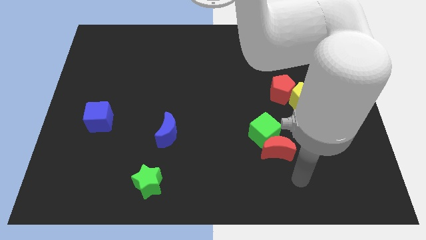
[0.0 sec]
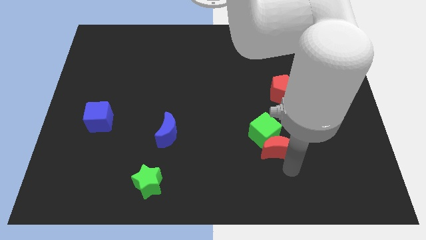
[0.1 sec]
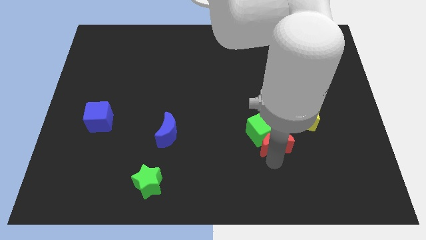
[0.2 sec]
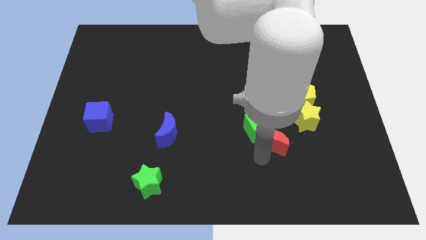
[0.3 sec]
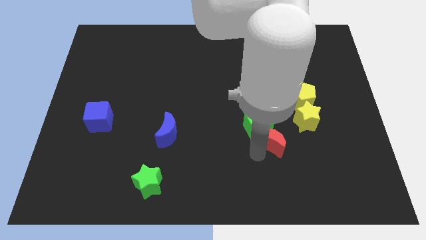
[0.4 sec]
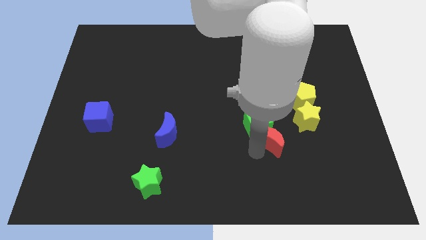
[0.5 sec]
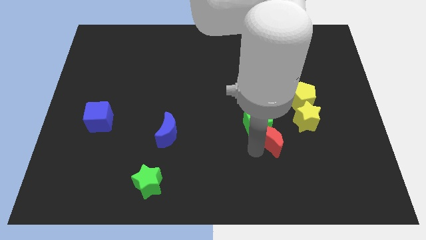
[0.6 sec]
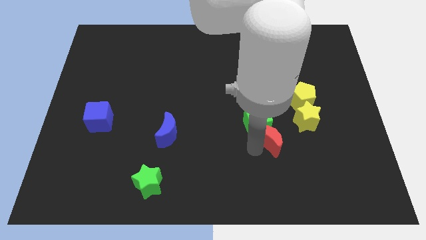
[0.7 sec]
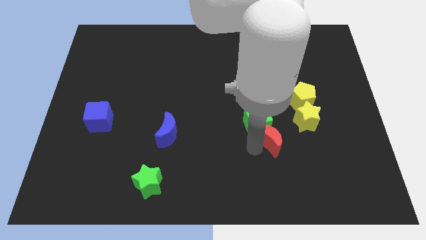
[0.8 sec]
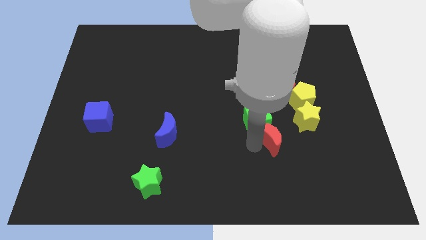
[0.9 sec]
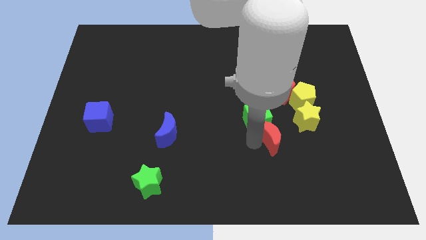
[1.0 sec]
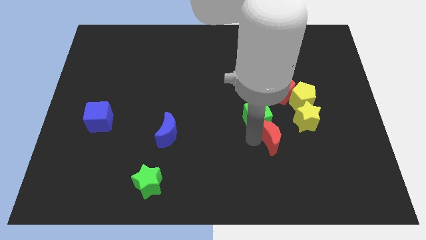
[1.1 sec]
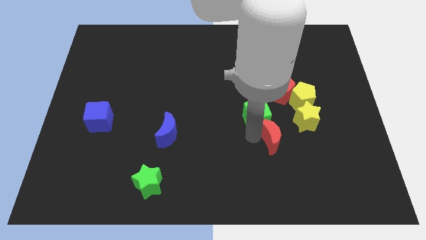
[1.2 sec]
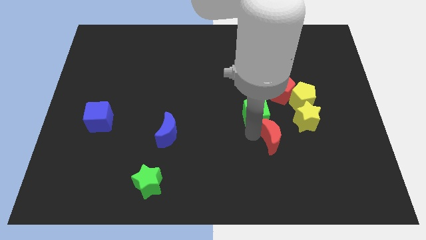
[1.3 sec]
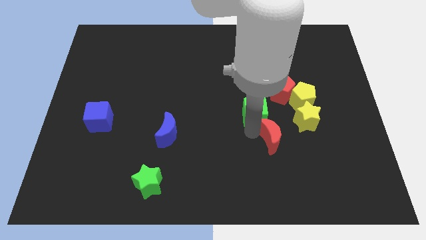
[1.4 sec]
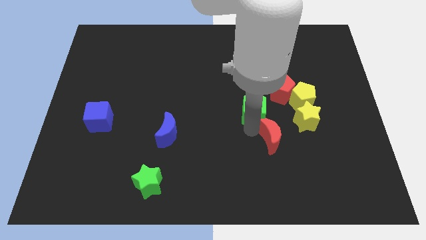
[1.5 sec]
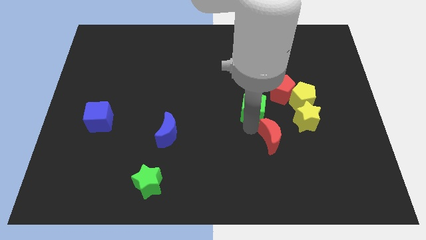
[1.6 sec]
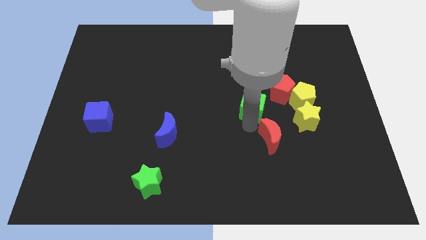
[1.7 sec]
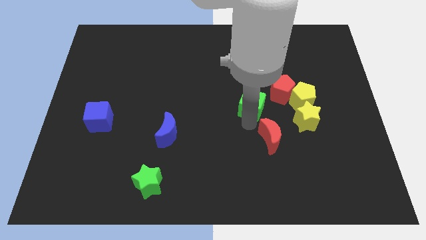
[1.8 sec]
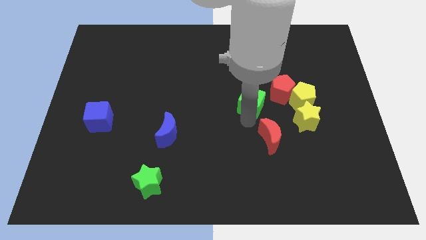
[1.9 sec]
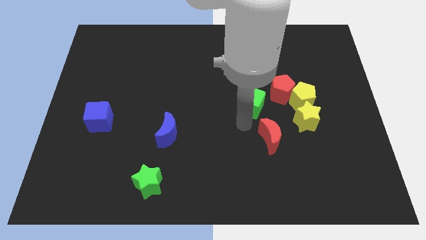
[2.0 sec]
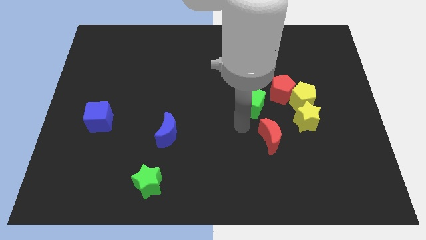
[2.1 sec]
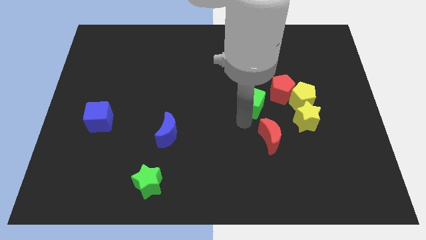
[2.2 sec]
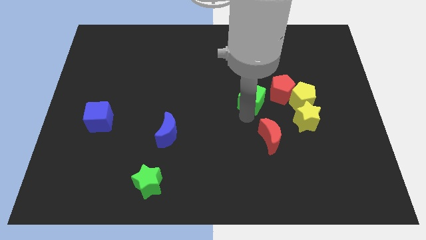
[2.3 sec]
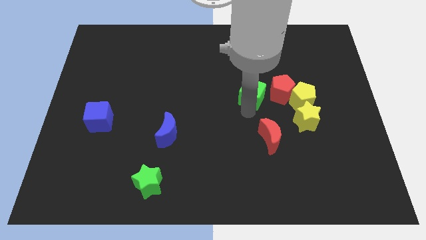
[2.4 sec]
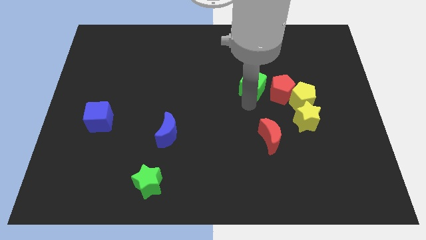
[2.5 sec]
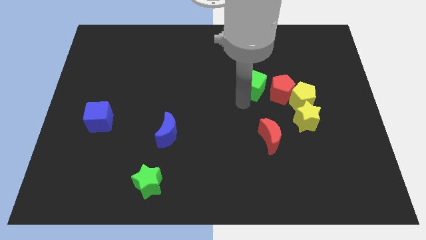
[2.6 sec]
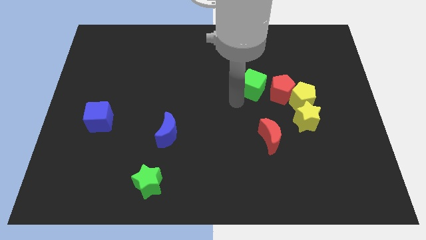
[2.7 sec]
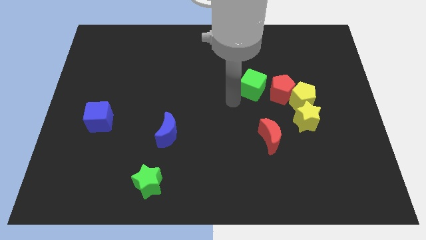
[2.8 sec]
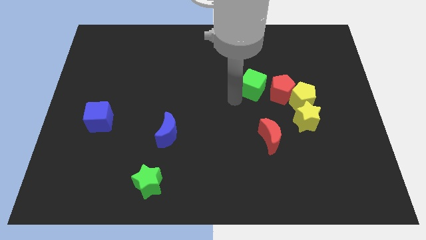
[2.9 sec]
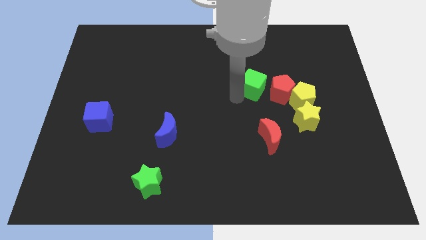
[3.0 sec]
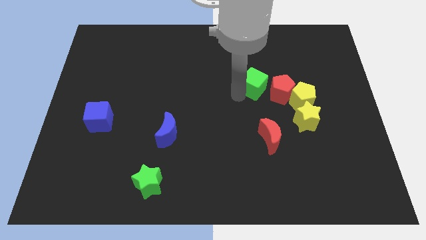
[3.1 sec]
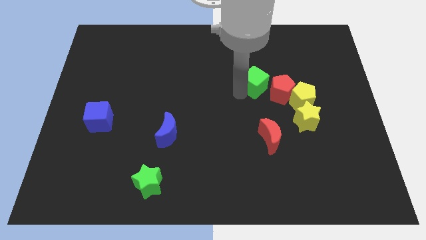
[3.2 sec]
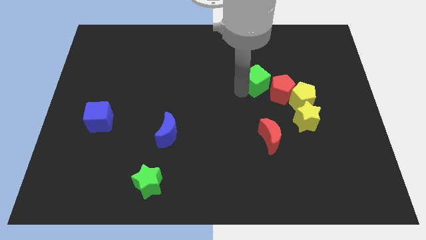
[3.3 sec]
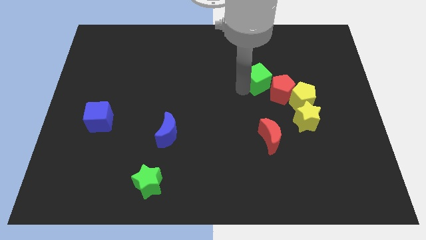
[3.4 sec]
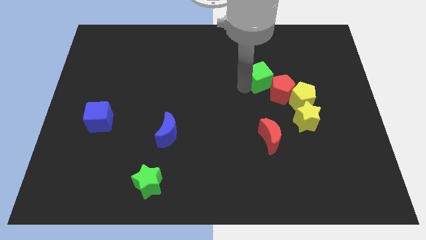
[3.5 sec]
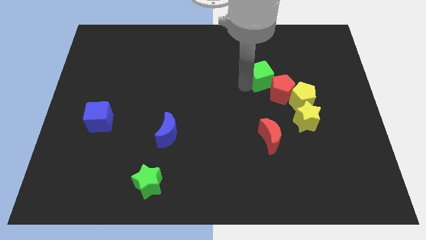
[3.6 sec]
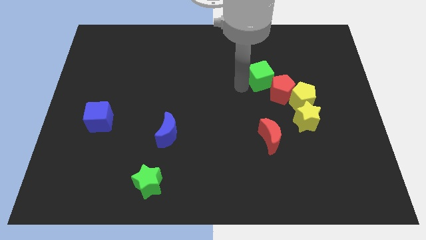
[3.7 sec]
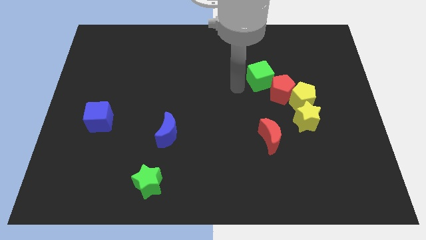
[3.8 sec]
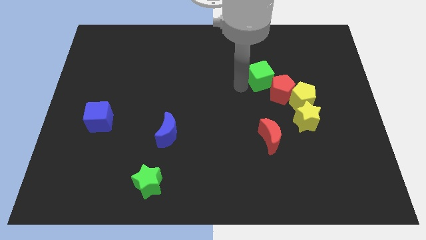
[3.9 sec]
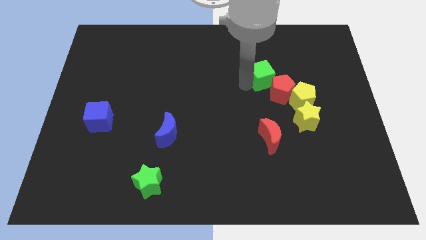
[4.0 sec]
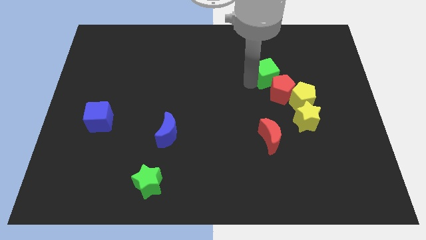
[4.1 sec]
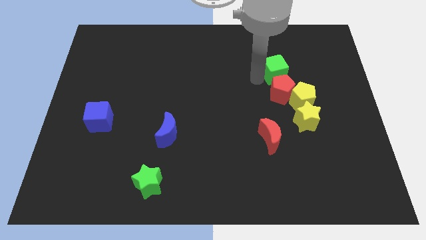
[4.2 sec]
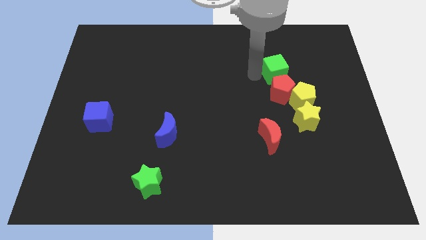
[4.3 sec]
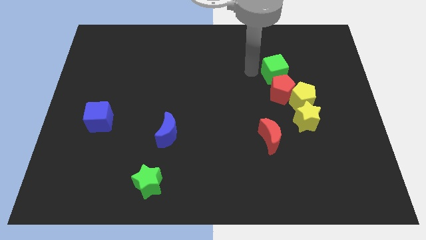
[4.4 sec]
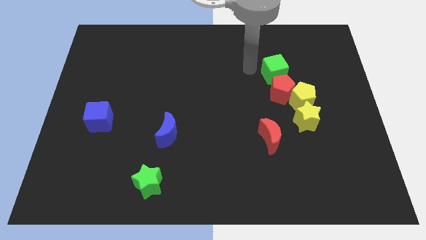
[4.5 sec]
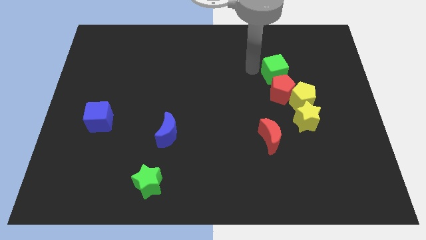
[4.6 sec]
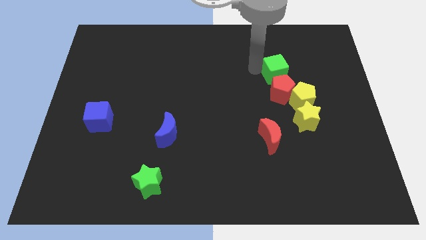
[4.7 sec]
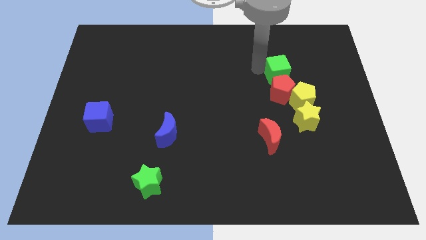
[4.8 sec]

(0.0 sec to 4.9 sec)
put the green cube diagonally up and to the right of the red pentagon

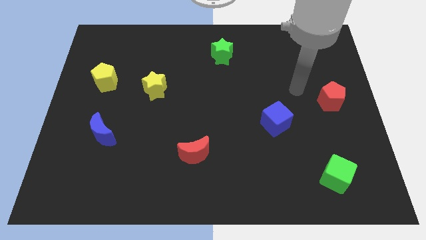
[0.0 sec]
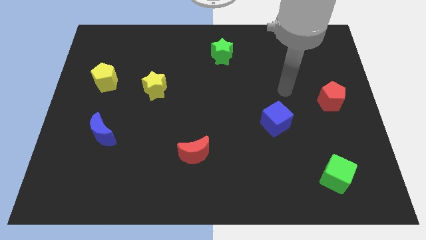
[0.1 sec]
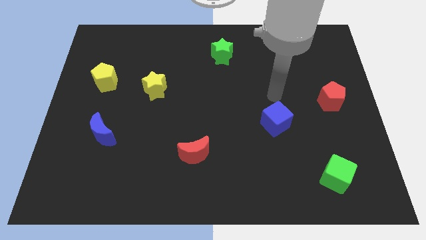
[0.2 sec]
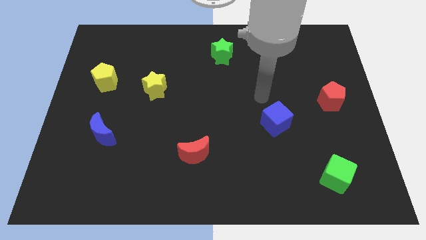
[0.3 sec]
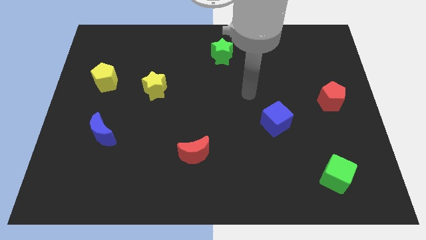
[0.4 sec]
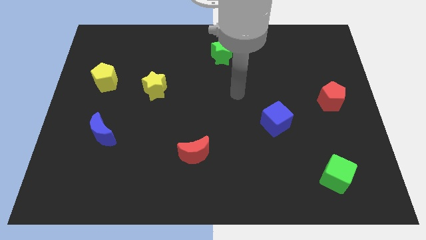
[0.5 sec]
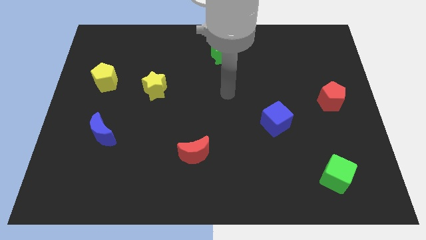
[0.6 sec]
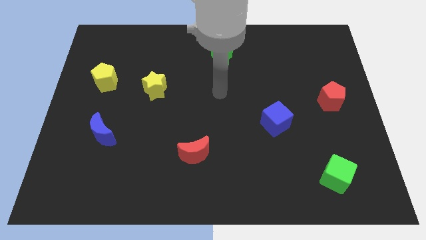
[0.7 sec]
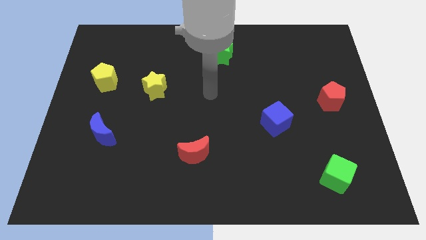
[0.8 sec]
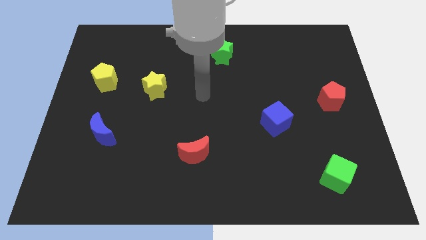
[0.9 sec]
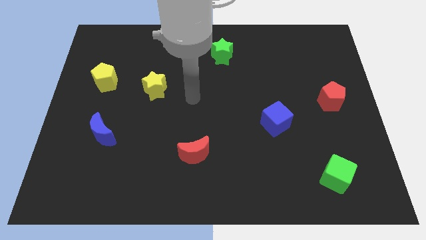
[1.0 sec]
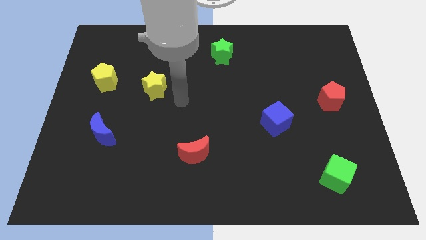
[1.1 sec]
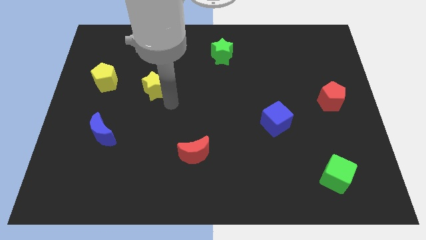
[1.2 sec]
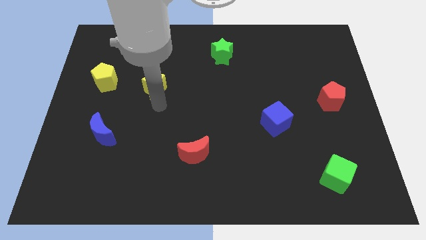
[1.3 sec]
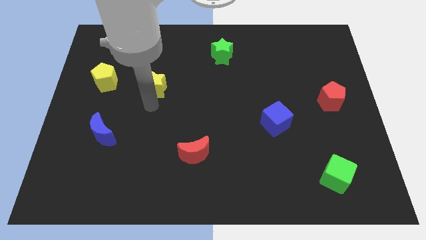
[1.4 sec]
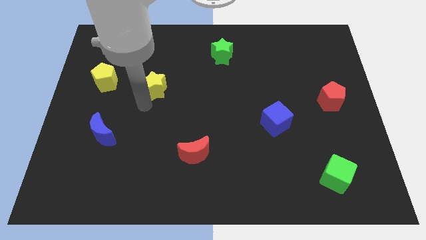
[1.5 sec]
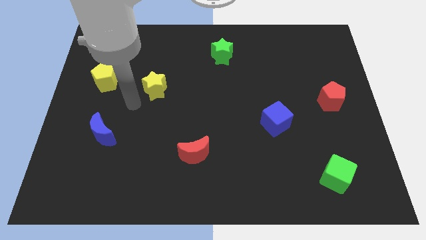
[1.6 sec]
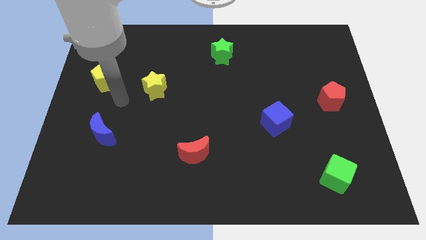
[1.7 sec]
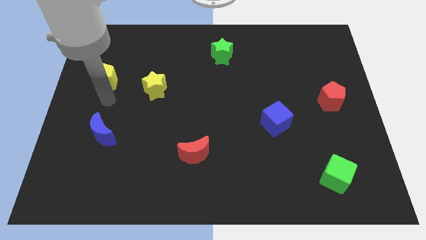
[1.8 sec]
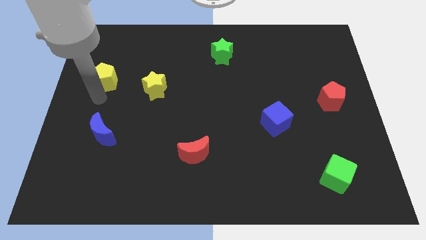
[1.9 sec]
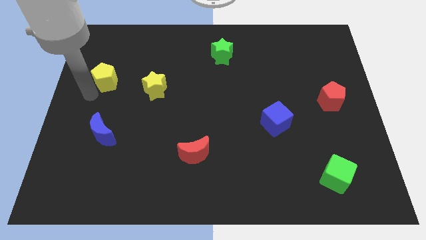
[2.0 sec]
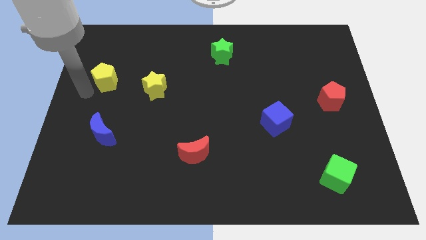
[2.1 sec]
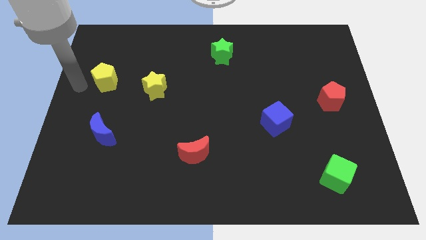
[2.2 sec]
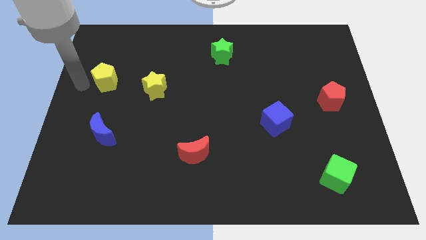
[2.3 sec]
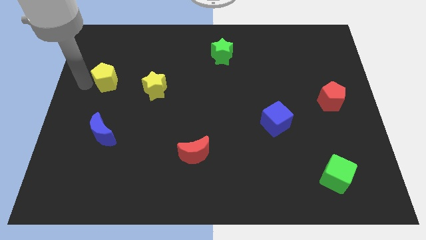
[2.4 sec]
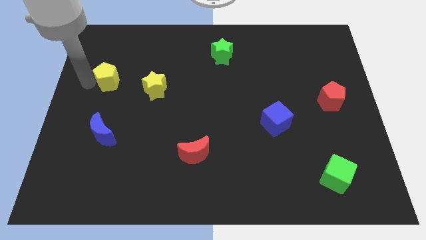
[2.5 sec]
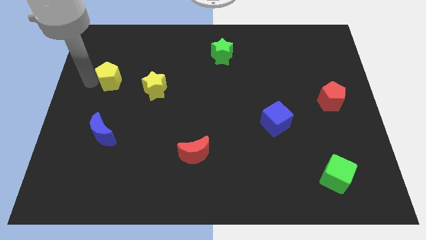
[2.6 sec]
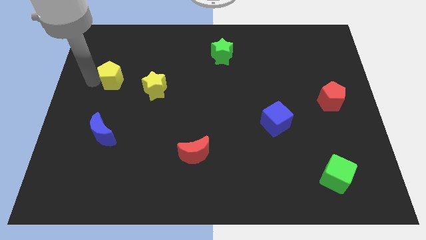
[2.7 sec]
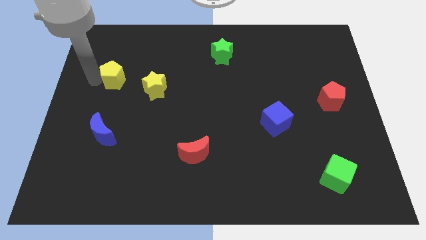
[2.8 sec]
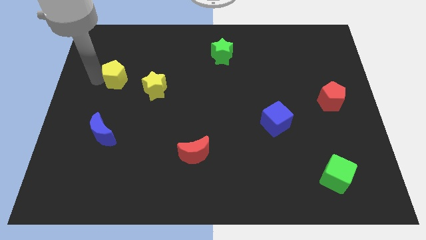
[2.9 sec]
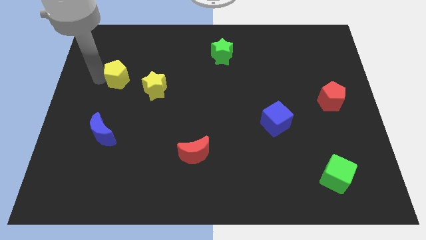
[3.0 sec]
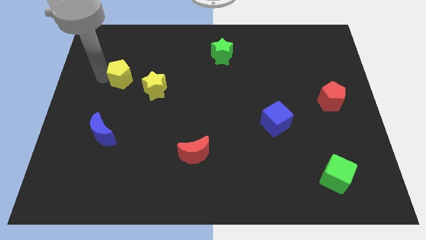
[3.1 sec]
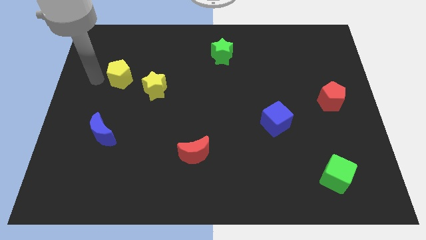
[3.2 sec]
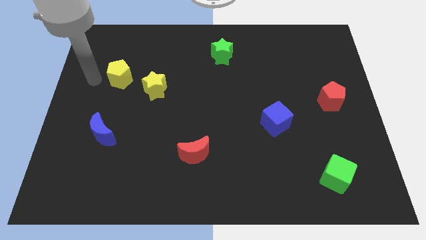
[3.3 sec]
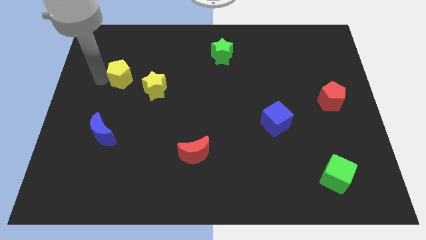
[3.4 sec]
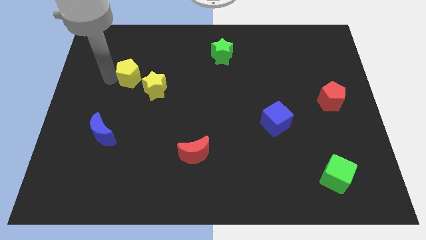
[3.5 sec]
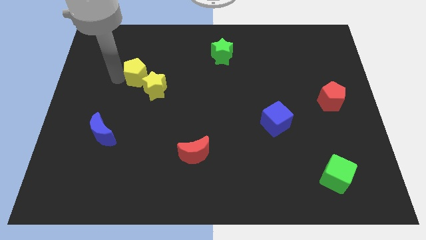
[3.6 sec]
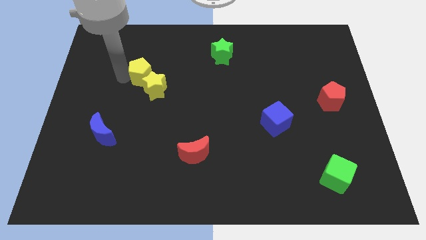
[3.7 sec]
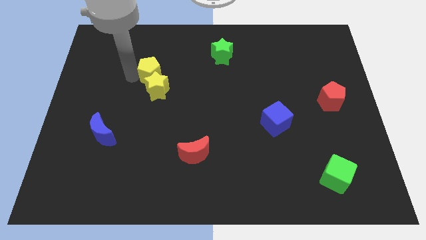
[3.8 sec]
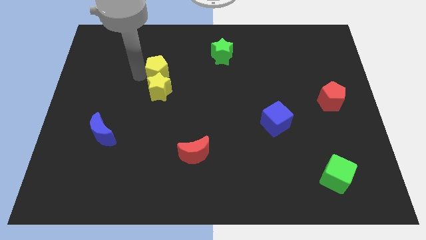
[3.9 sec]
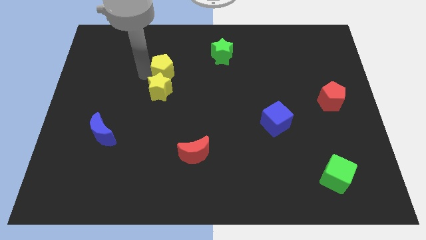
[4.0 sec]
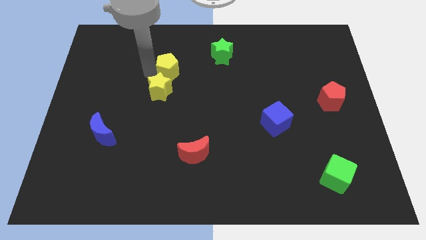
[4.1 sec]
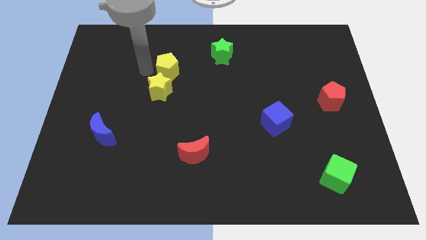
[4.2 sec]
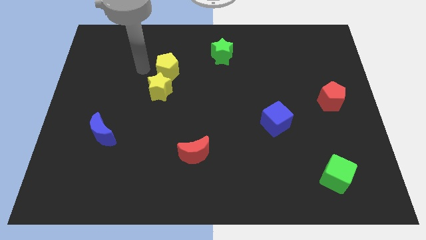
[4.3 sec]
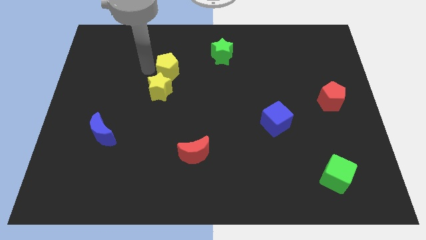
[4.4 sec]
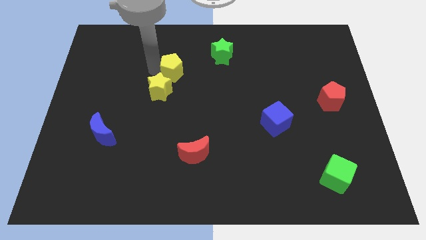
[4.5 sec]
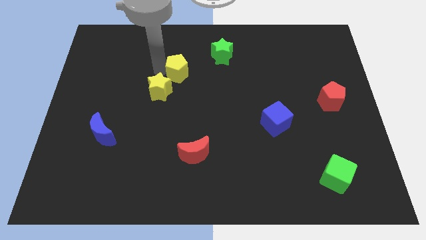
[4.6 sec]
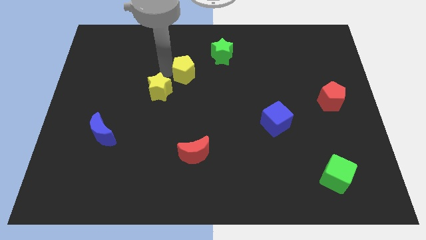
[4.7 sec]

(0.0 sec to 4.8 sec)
slide the yellow pentagon to the bottom left side of the green star
